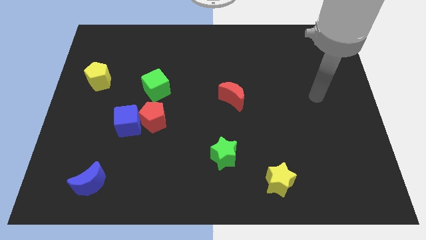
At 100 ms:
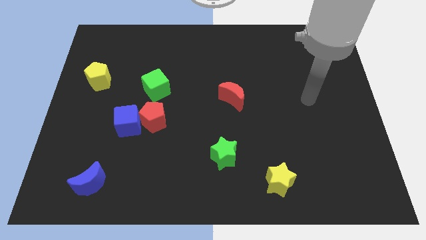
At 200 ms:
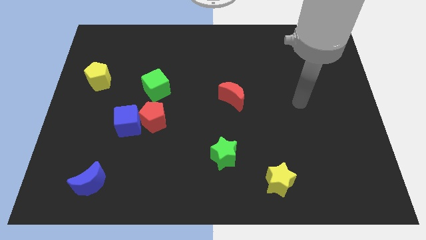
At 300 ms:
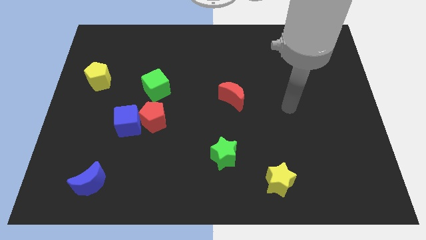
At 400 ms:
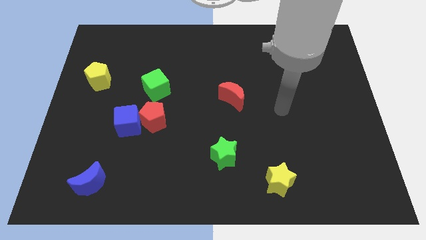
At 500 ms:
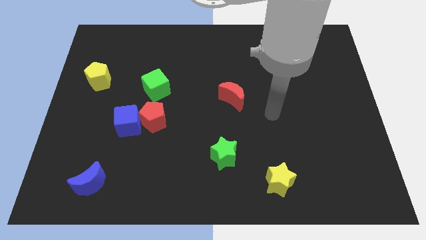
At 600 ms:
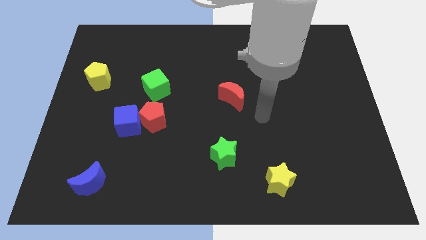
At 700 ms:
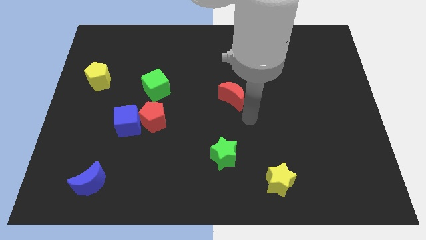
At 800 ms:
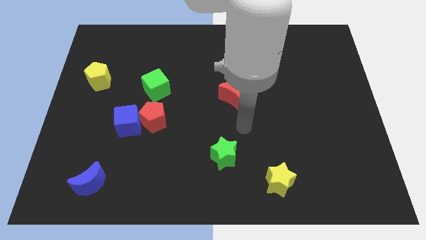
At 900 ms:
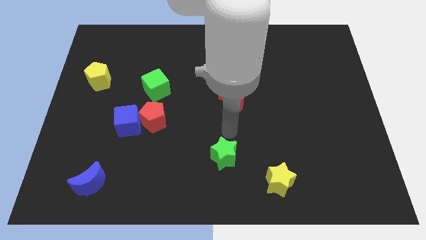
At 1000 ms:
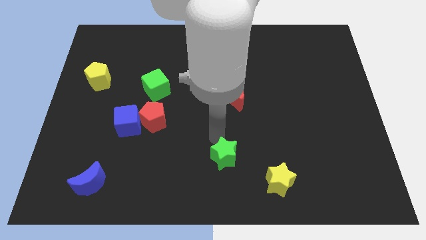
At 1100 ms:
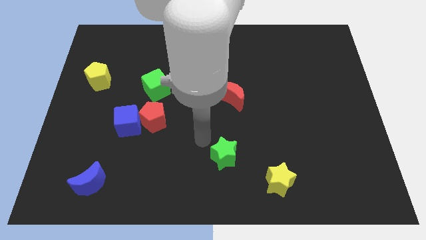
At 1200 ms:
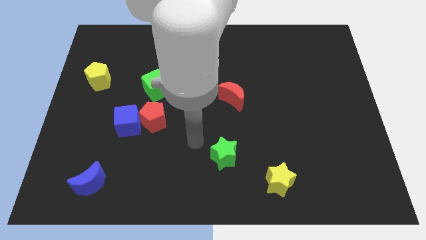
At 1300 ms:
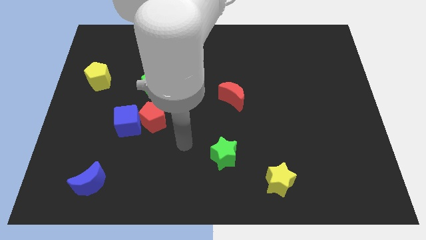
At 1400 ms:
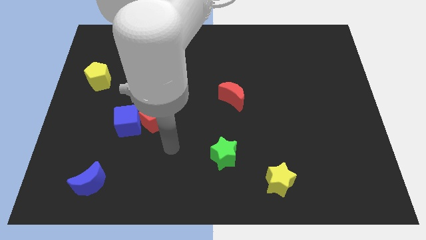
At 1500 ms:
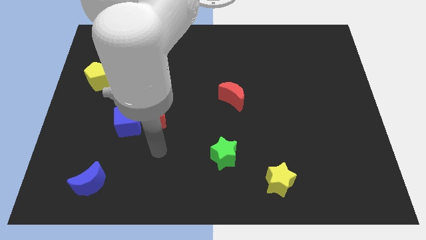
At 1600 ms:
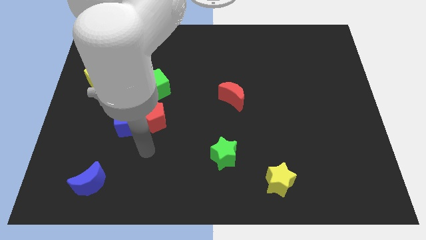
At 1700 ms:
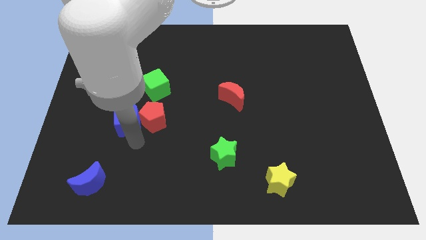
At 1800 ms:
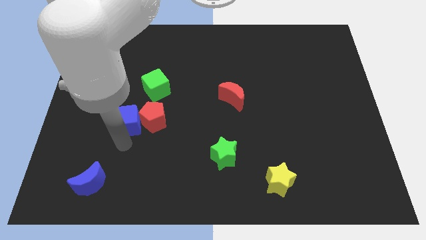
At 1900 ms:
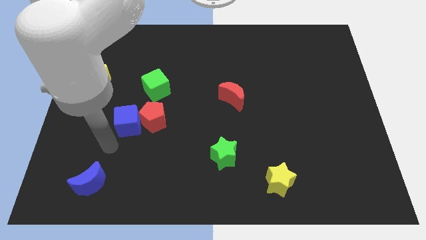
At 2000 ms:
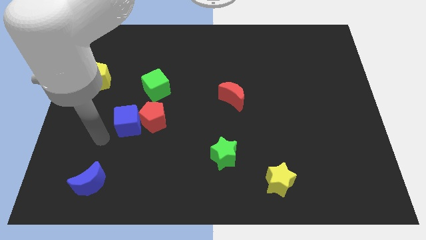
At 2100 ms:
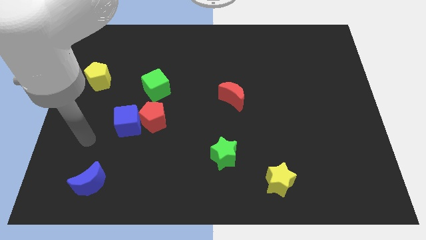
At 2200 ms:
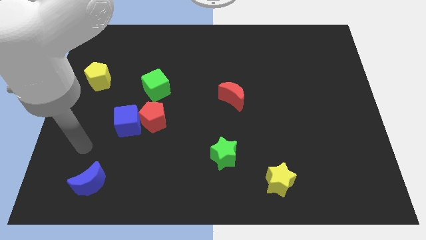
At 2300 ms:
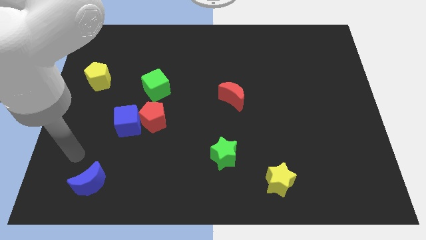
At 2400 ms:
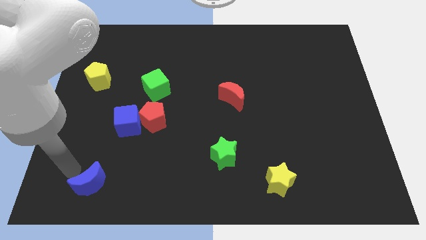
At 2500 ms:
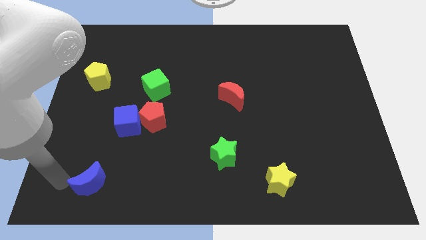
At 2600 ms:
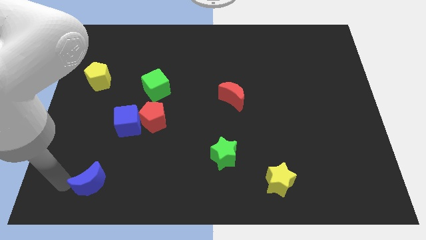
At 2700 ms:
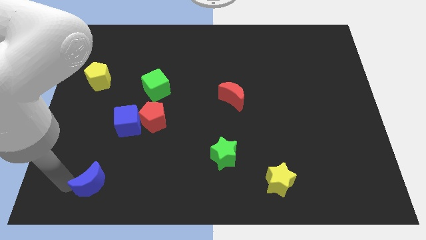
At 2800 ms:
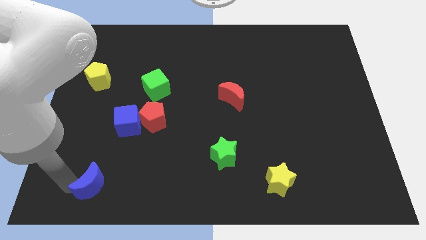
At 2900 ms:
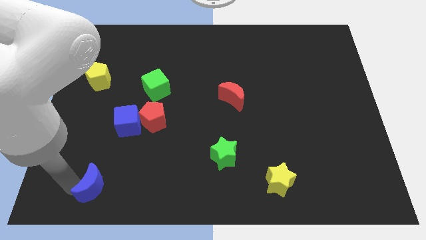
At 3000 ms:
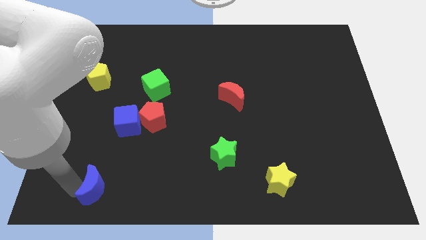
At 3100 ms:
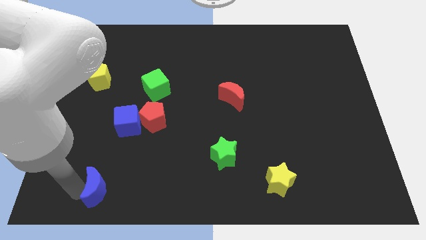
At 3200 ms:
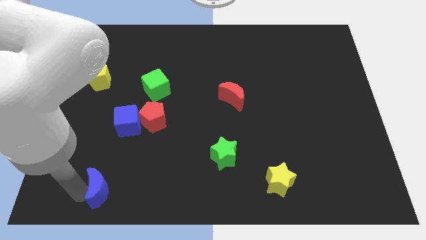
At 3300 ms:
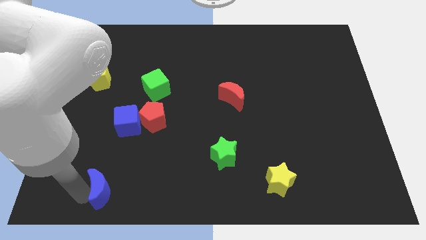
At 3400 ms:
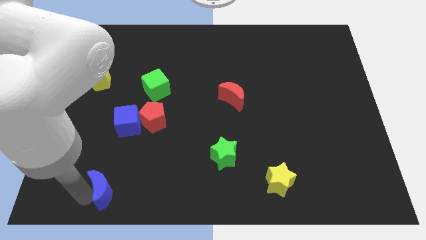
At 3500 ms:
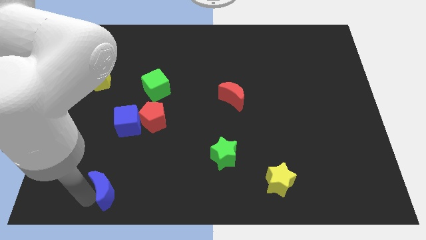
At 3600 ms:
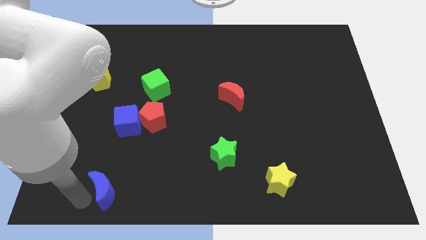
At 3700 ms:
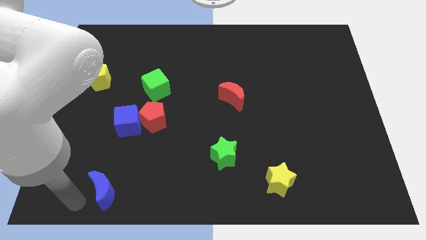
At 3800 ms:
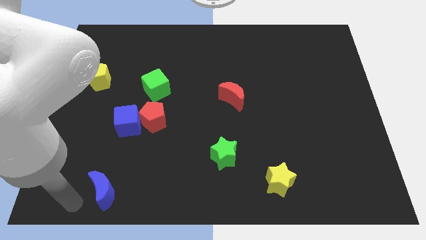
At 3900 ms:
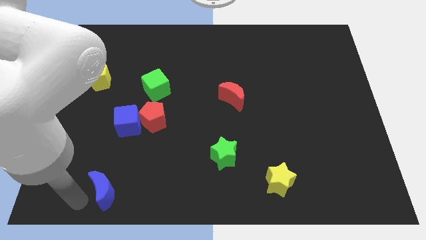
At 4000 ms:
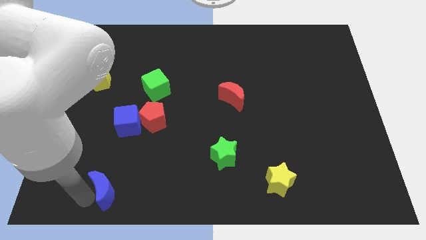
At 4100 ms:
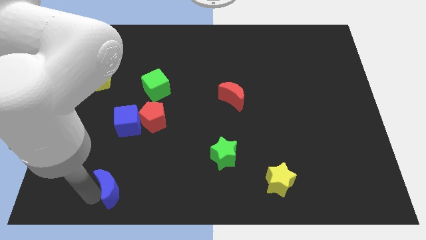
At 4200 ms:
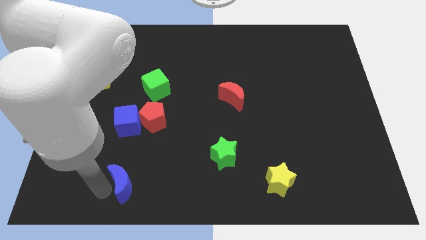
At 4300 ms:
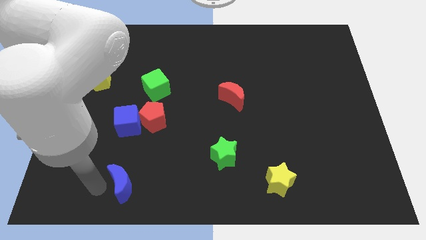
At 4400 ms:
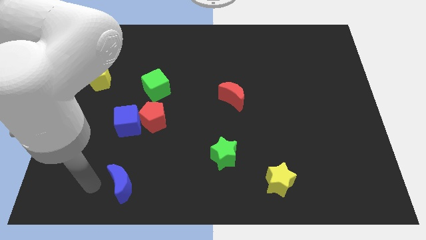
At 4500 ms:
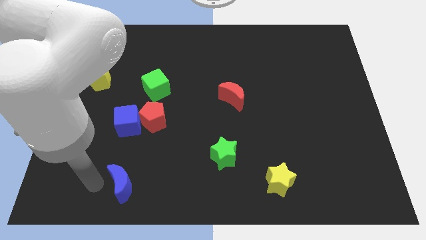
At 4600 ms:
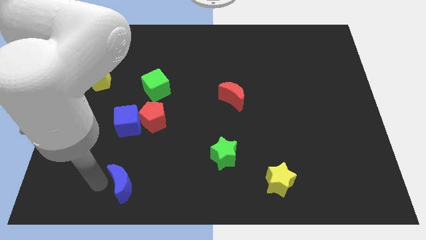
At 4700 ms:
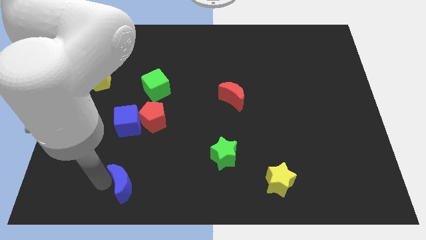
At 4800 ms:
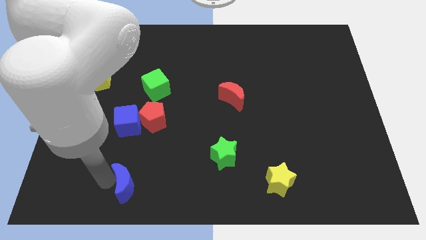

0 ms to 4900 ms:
slightly push the blue moon to the right

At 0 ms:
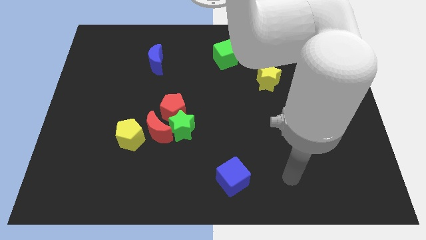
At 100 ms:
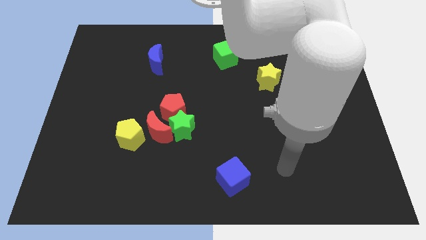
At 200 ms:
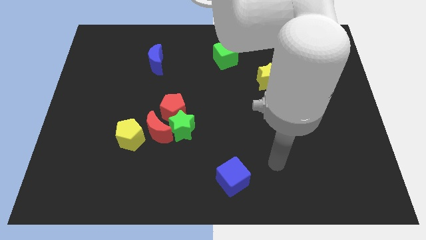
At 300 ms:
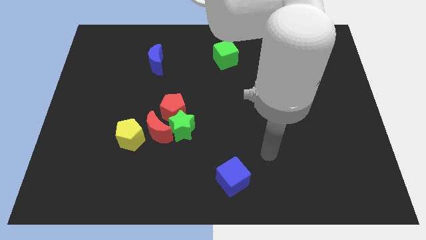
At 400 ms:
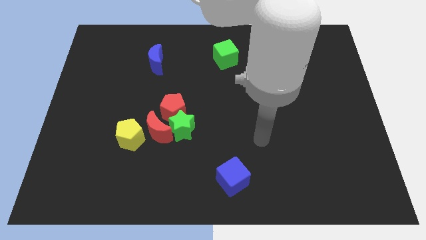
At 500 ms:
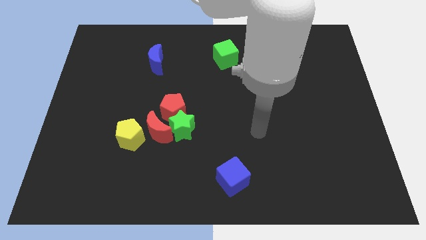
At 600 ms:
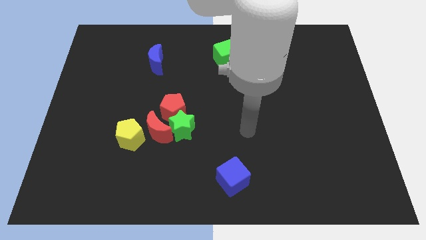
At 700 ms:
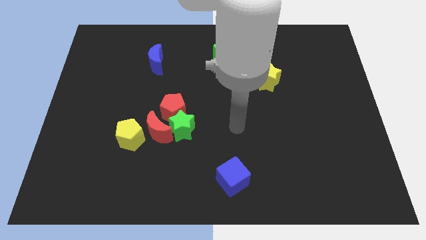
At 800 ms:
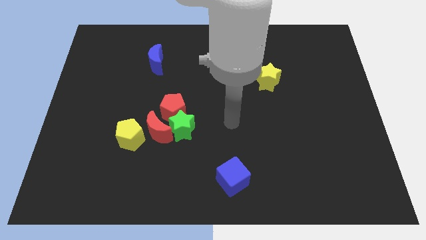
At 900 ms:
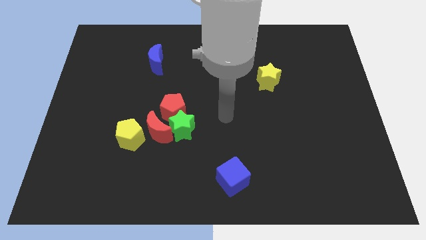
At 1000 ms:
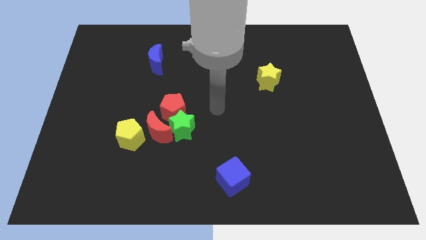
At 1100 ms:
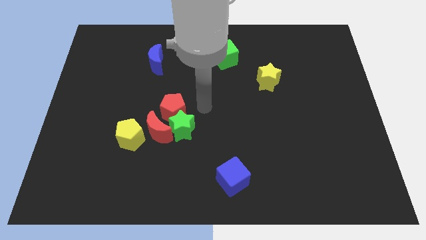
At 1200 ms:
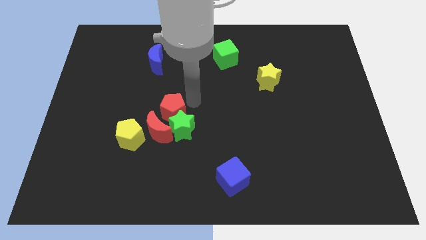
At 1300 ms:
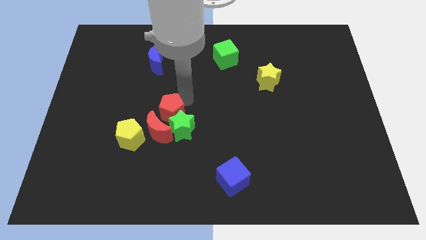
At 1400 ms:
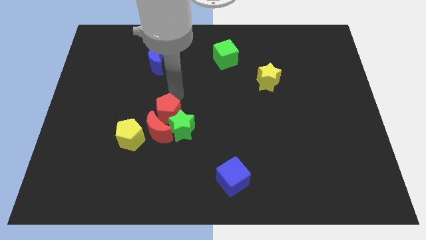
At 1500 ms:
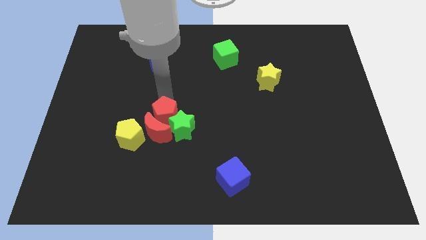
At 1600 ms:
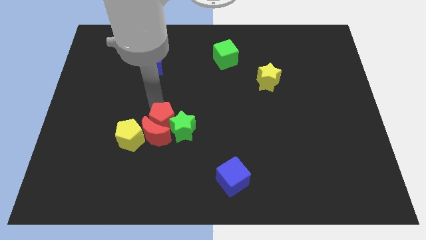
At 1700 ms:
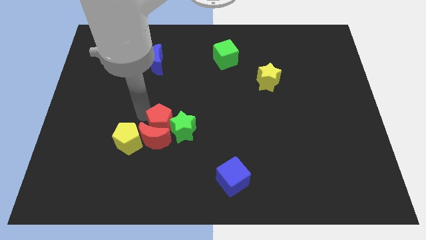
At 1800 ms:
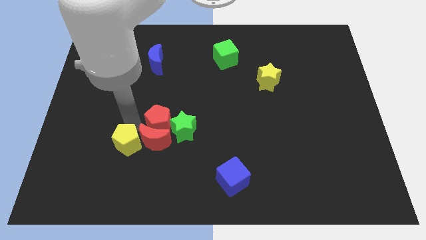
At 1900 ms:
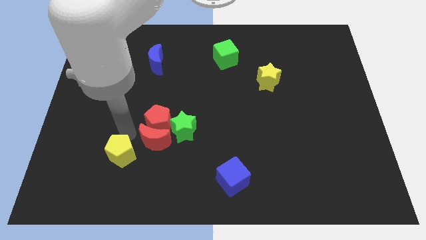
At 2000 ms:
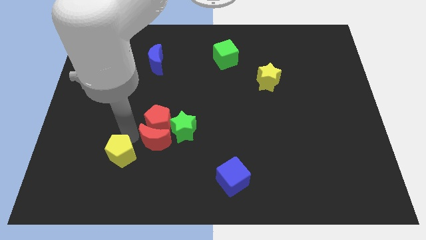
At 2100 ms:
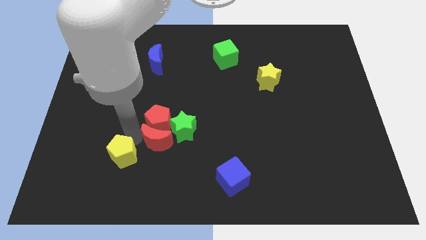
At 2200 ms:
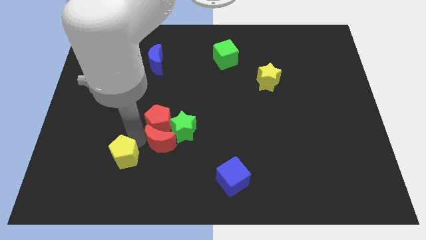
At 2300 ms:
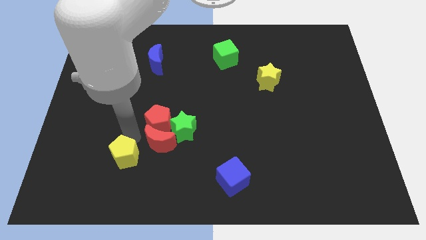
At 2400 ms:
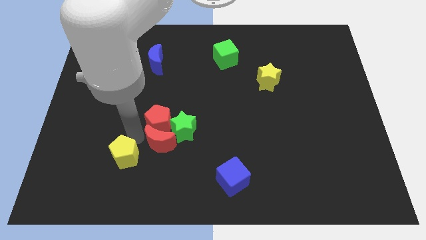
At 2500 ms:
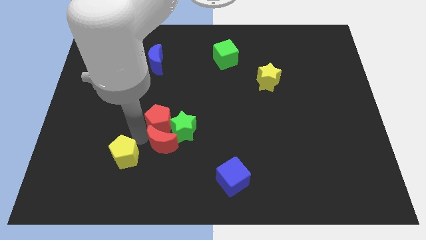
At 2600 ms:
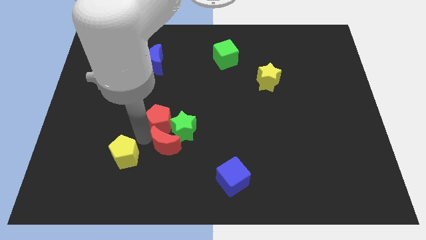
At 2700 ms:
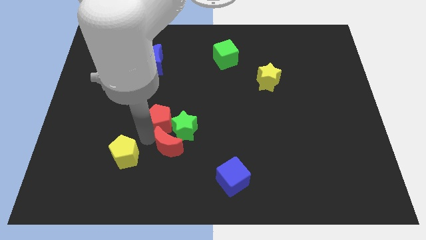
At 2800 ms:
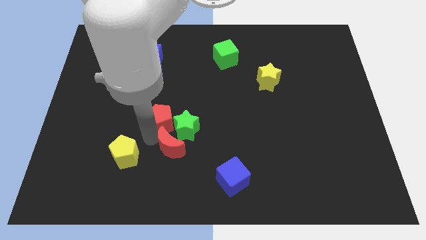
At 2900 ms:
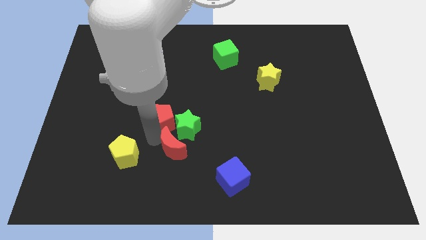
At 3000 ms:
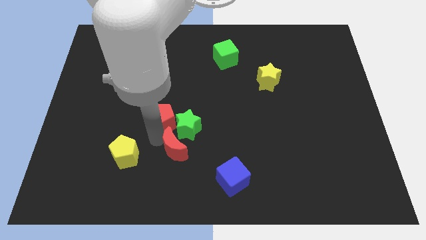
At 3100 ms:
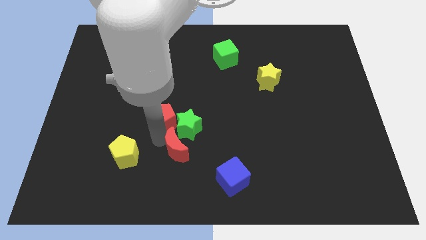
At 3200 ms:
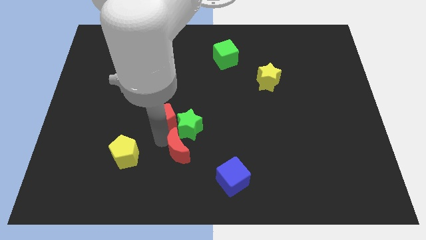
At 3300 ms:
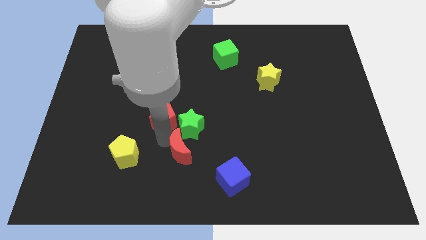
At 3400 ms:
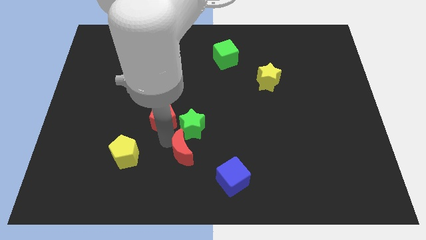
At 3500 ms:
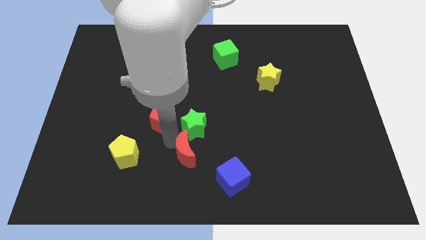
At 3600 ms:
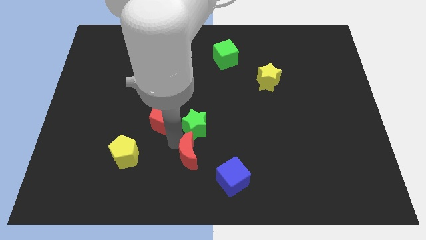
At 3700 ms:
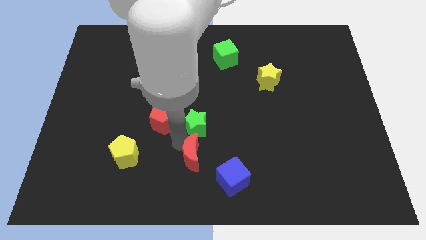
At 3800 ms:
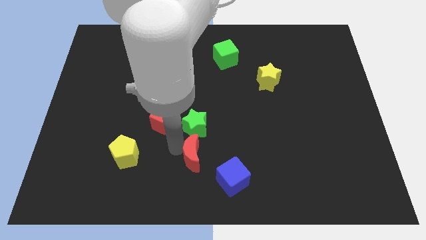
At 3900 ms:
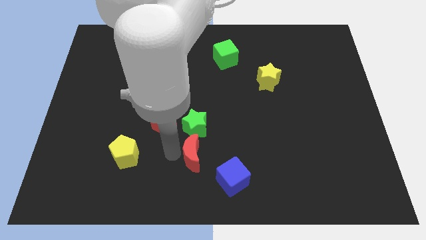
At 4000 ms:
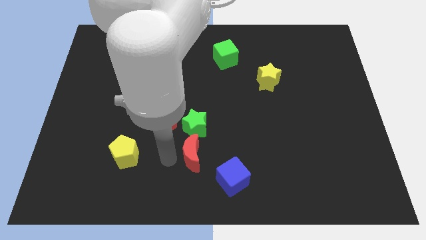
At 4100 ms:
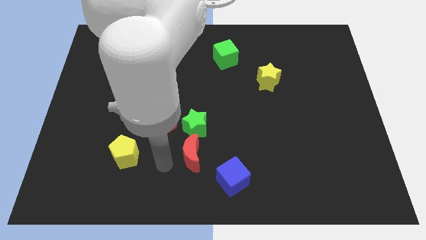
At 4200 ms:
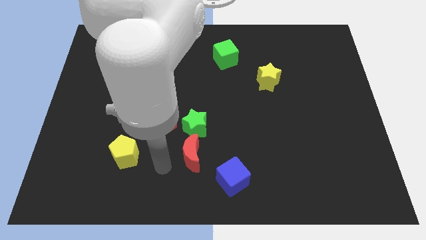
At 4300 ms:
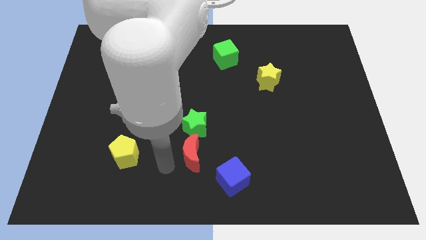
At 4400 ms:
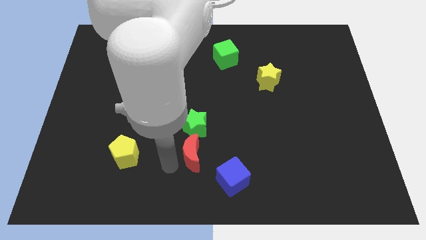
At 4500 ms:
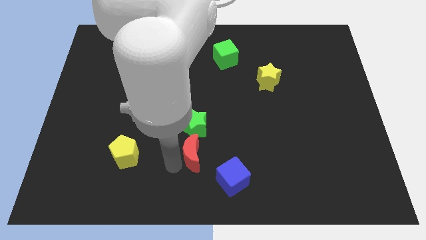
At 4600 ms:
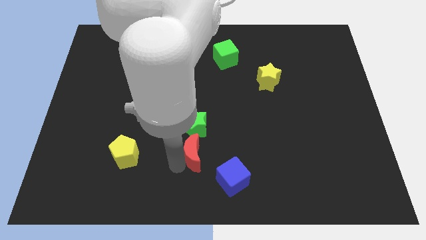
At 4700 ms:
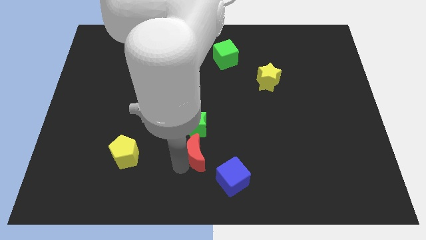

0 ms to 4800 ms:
move the red moon right slightly
